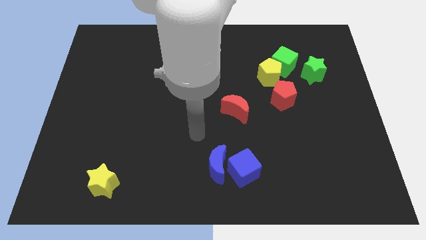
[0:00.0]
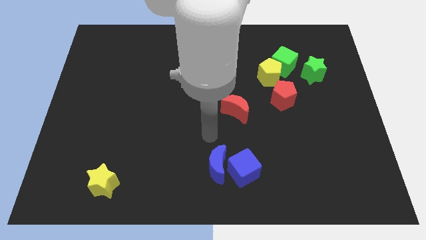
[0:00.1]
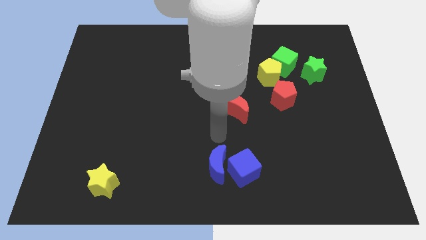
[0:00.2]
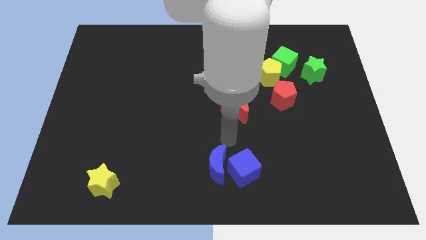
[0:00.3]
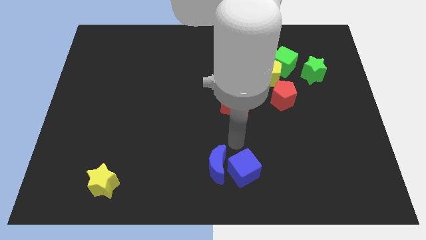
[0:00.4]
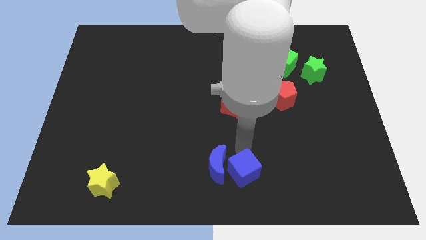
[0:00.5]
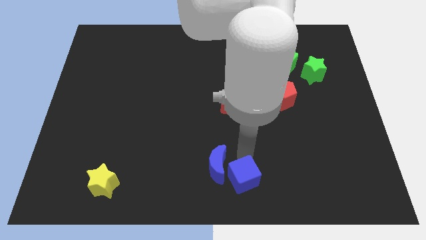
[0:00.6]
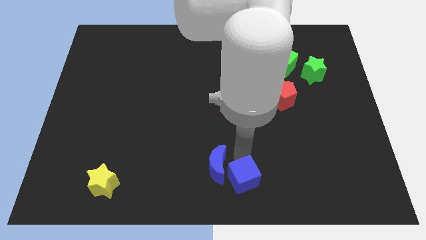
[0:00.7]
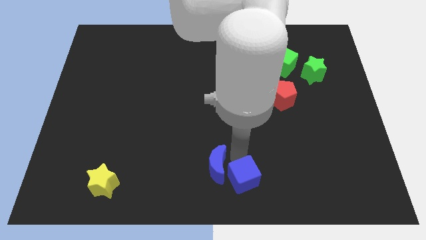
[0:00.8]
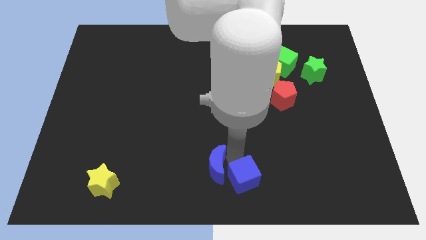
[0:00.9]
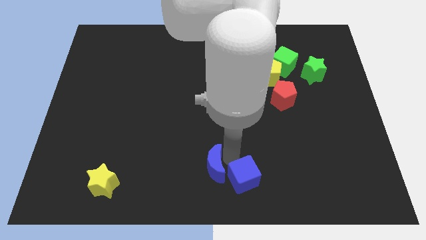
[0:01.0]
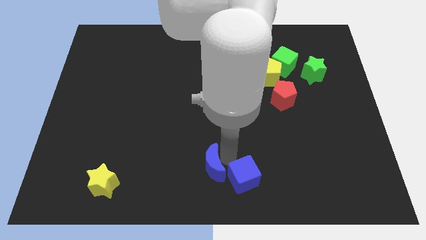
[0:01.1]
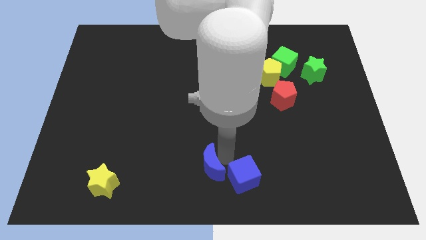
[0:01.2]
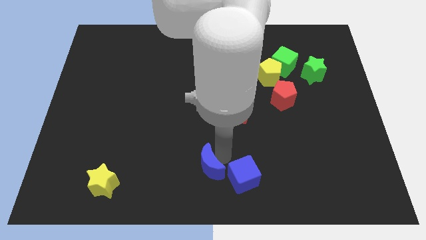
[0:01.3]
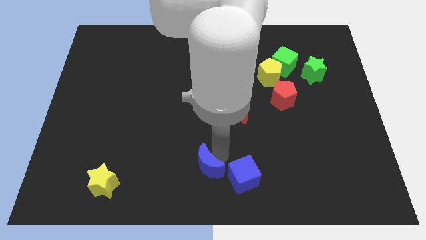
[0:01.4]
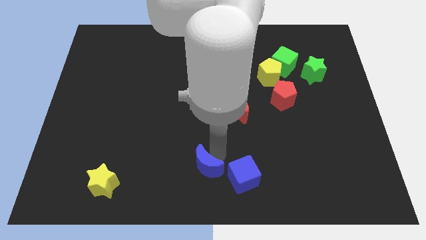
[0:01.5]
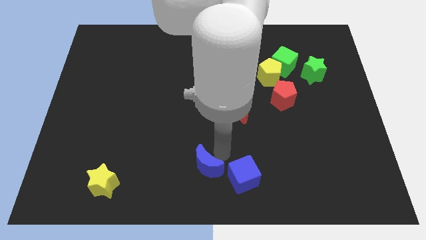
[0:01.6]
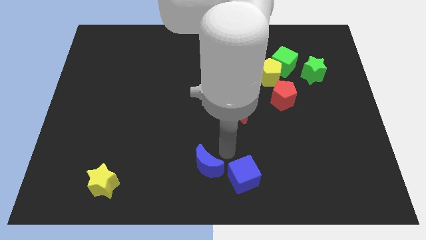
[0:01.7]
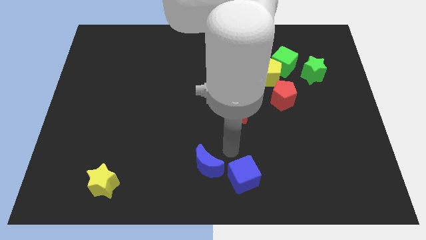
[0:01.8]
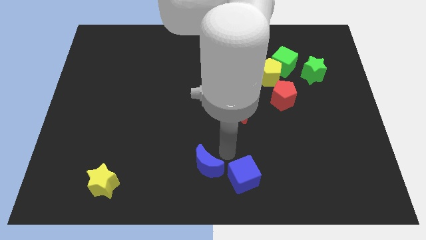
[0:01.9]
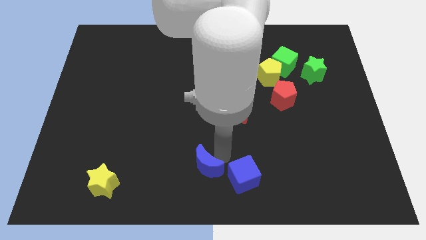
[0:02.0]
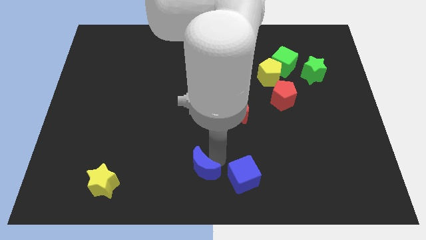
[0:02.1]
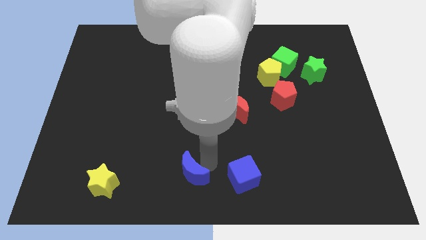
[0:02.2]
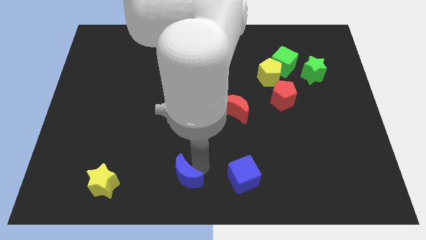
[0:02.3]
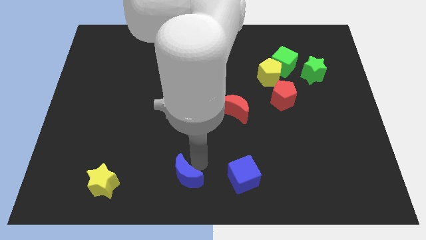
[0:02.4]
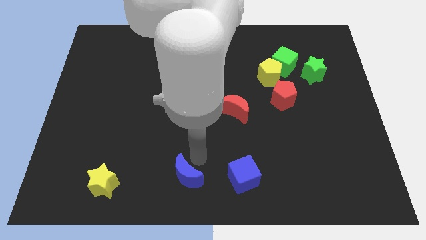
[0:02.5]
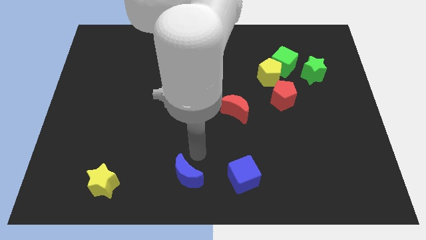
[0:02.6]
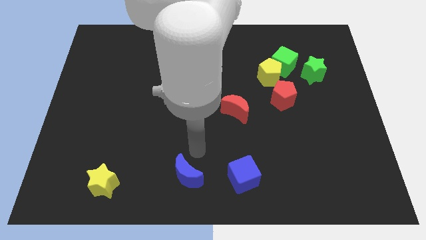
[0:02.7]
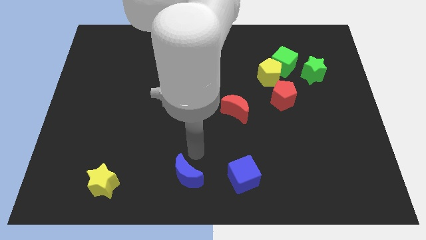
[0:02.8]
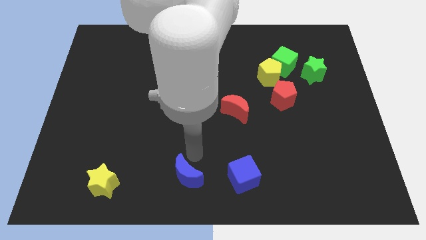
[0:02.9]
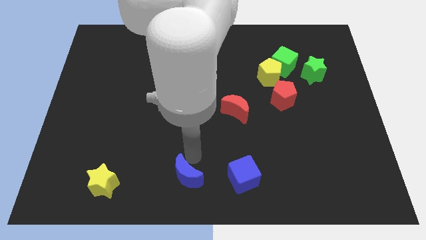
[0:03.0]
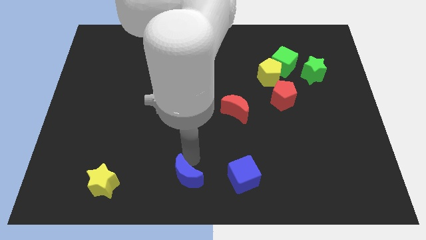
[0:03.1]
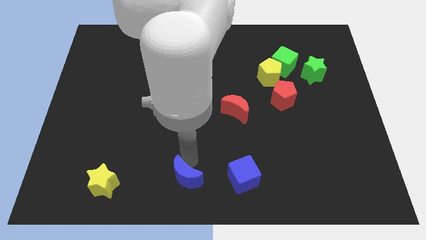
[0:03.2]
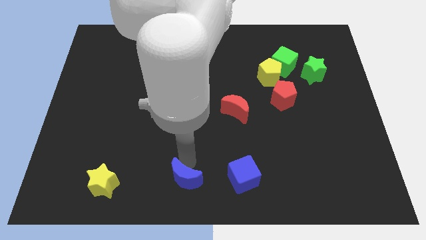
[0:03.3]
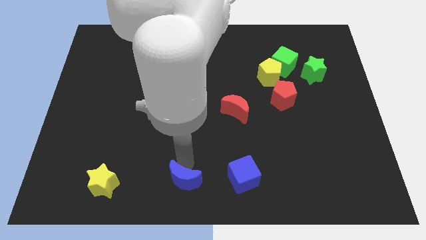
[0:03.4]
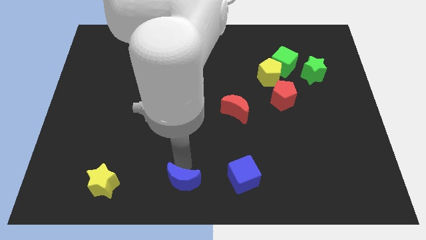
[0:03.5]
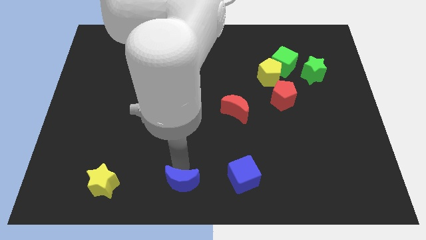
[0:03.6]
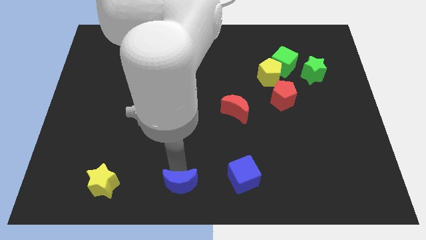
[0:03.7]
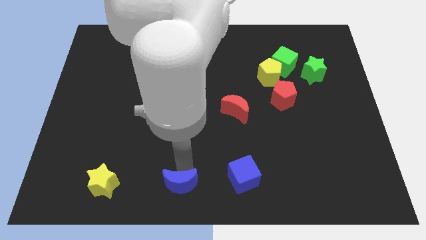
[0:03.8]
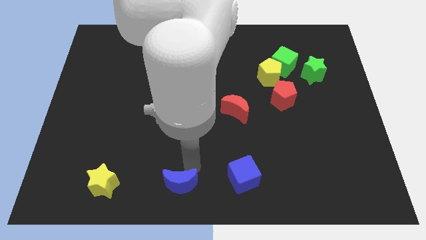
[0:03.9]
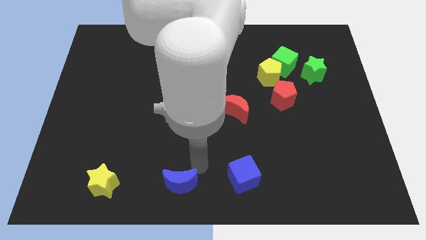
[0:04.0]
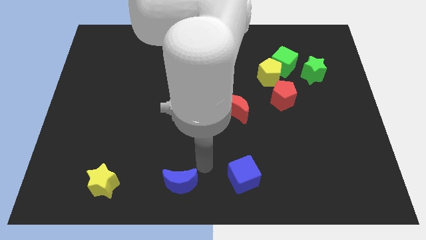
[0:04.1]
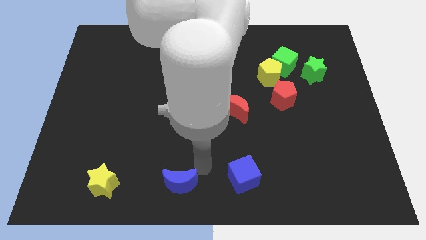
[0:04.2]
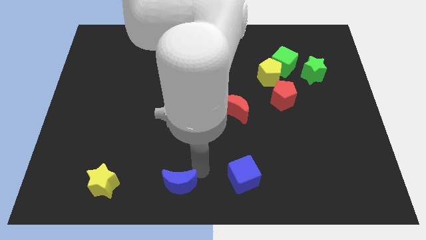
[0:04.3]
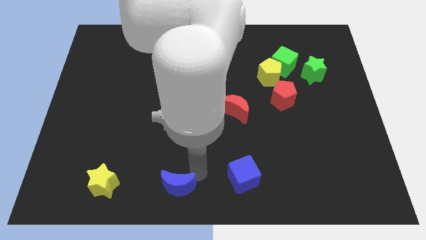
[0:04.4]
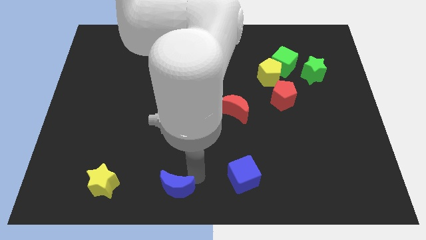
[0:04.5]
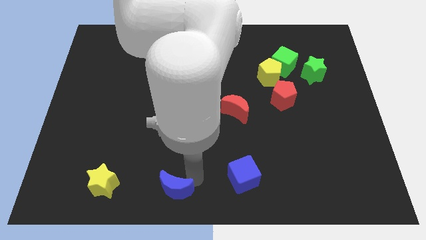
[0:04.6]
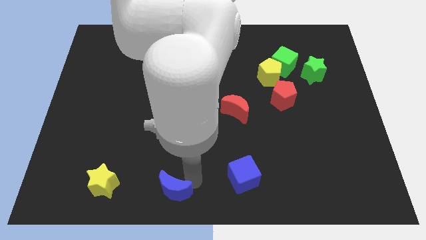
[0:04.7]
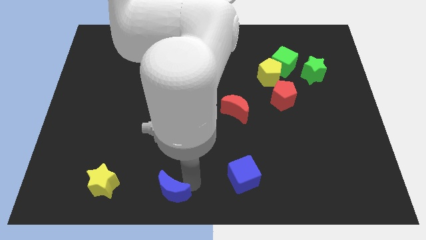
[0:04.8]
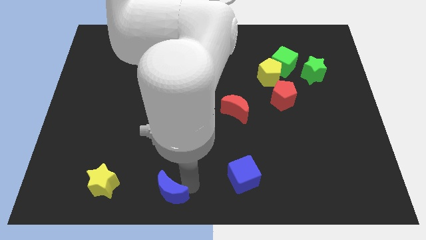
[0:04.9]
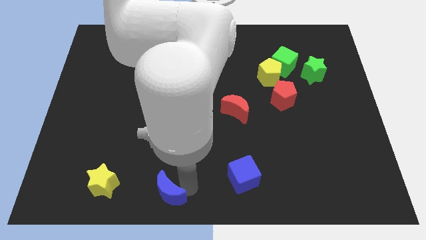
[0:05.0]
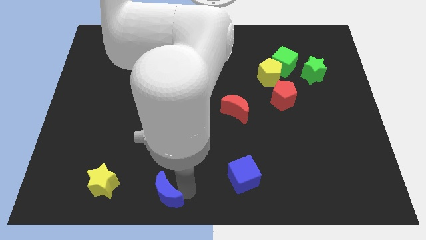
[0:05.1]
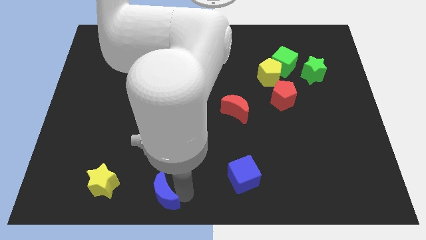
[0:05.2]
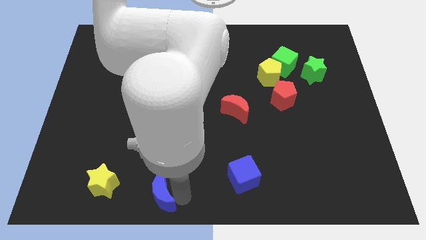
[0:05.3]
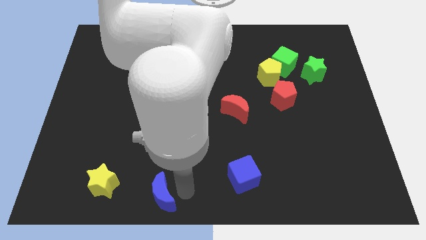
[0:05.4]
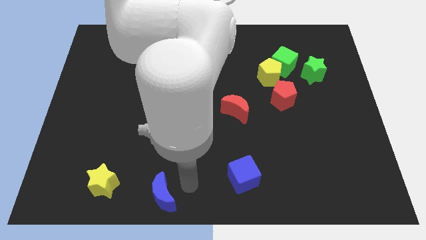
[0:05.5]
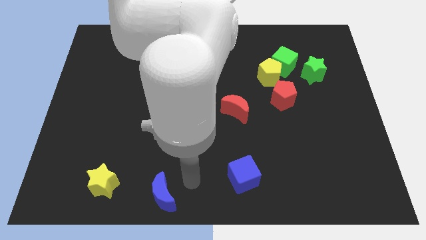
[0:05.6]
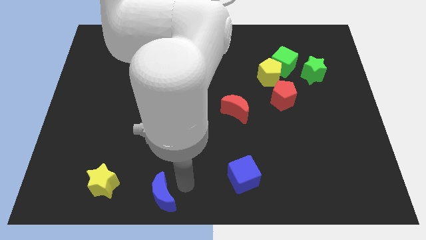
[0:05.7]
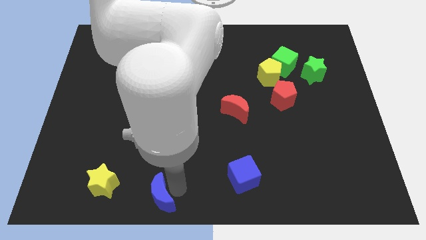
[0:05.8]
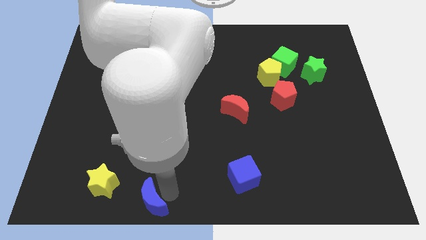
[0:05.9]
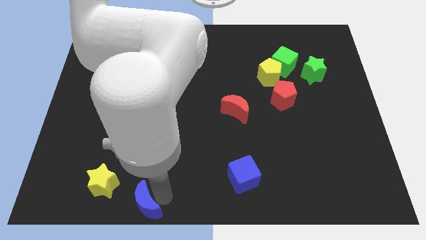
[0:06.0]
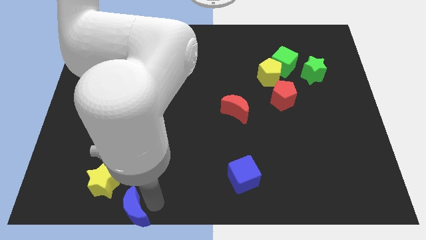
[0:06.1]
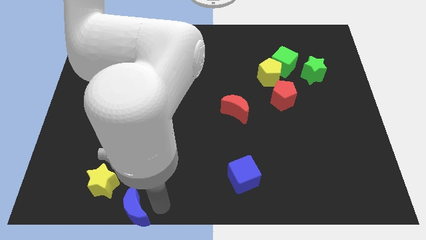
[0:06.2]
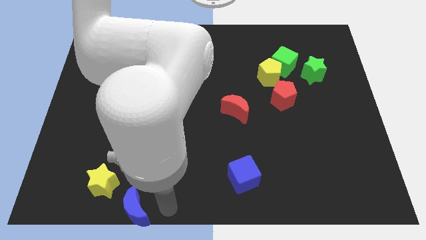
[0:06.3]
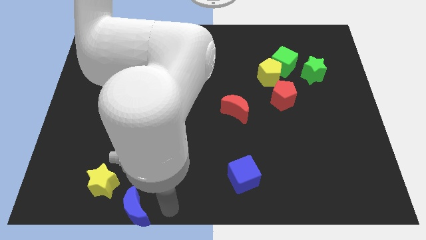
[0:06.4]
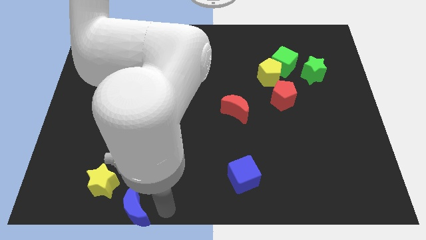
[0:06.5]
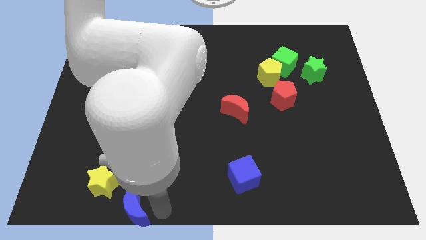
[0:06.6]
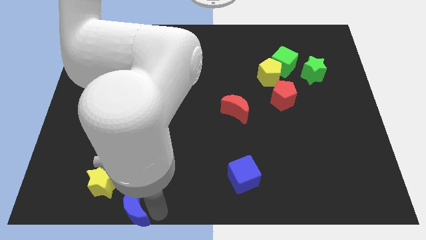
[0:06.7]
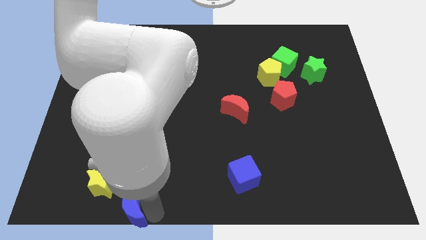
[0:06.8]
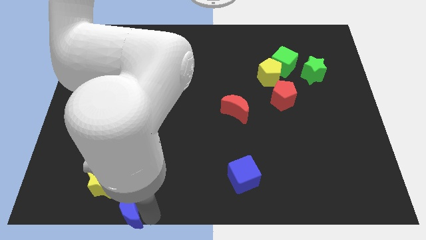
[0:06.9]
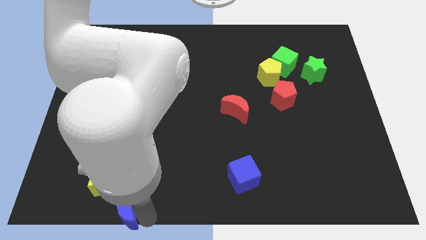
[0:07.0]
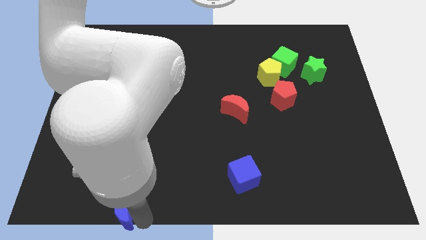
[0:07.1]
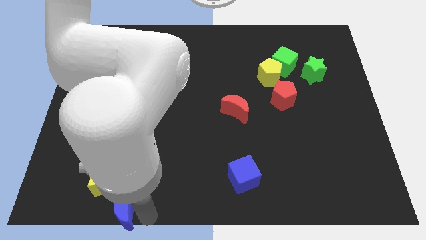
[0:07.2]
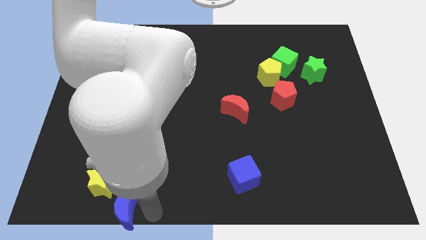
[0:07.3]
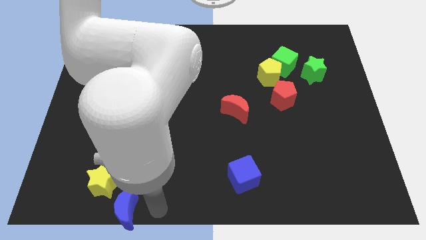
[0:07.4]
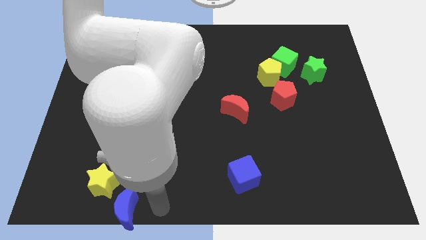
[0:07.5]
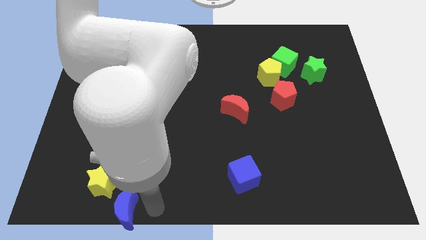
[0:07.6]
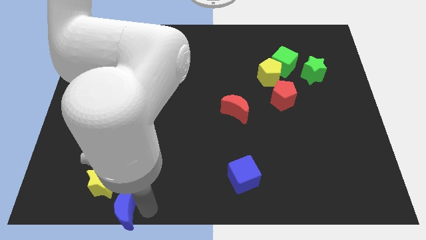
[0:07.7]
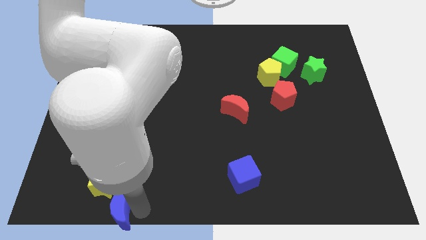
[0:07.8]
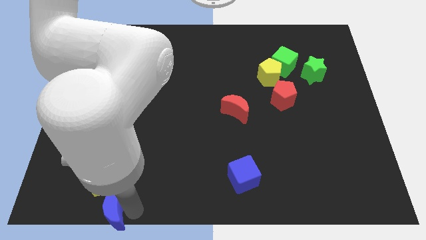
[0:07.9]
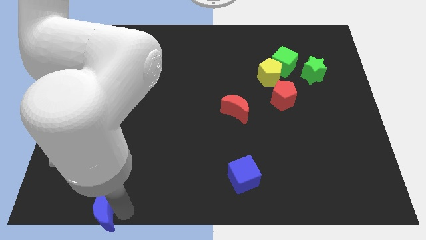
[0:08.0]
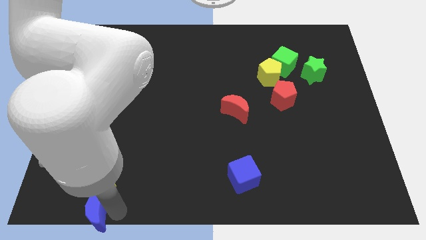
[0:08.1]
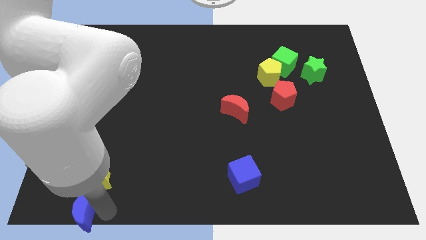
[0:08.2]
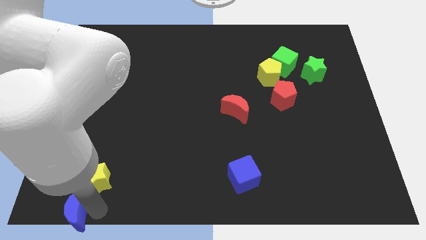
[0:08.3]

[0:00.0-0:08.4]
put the blue moon to the bottom left
